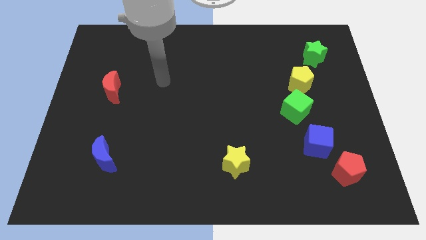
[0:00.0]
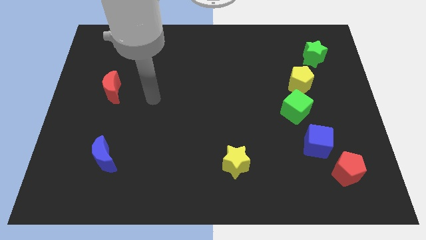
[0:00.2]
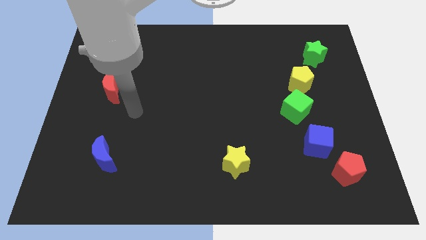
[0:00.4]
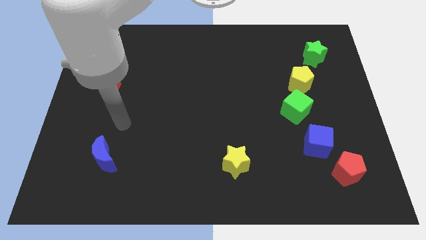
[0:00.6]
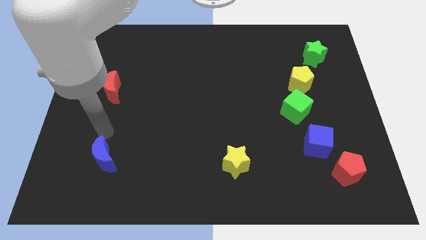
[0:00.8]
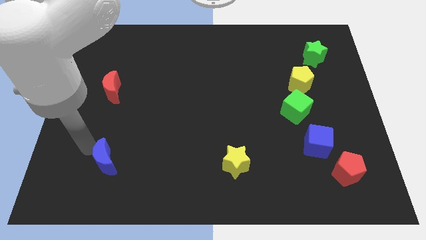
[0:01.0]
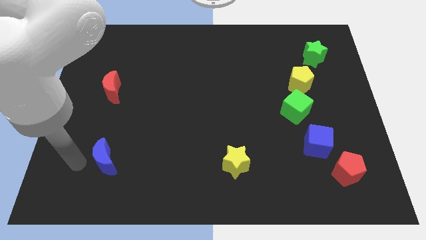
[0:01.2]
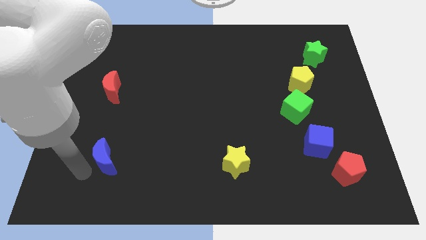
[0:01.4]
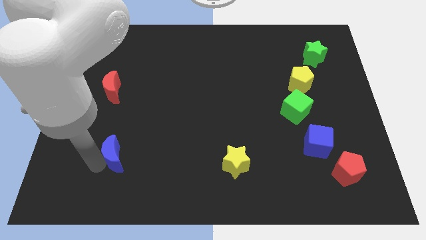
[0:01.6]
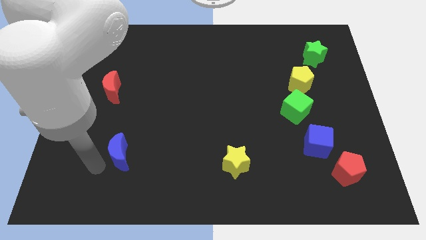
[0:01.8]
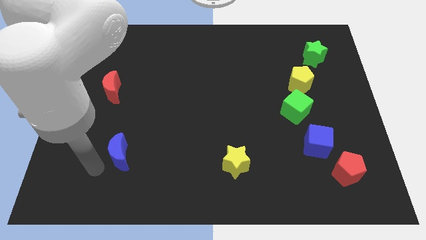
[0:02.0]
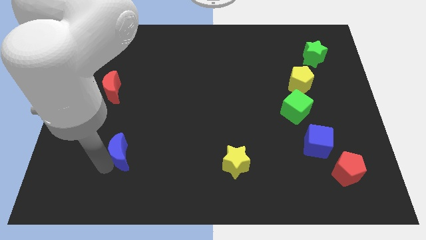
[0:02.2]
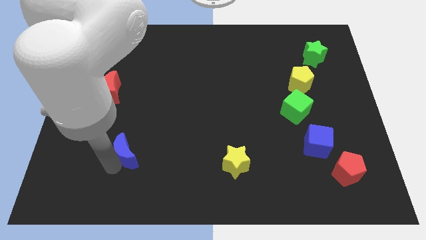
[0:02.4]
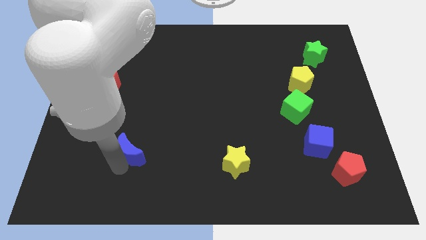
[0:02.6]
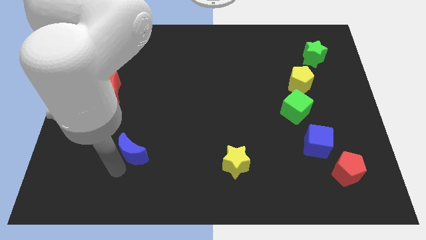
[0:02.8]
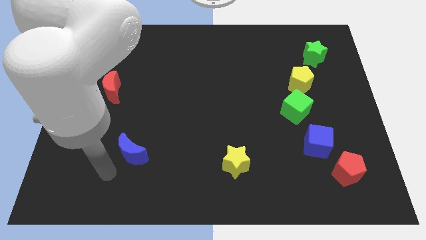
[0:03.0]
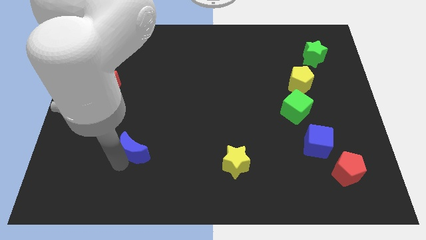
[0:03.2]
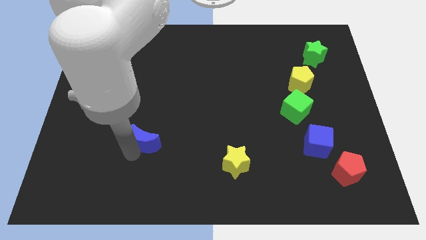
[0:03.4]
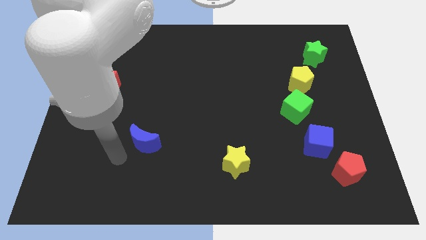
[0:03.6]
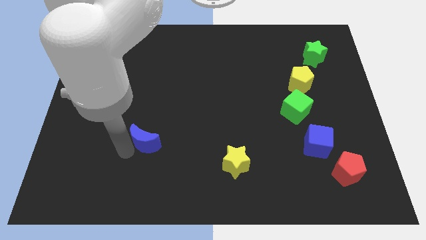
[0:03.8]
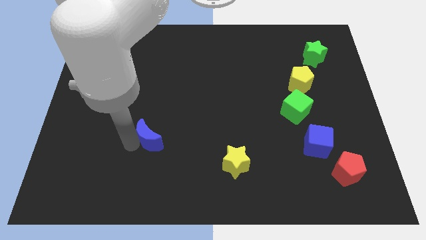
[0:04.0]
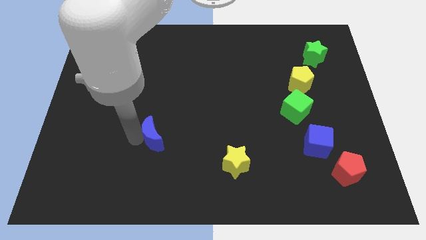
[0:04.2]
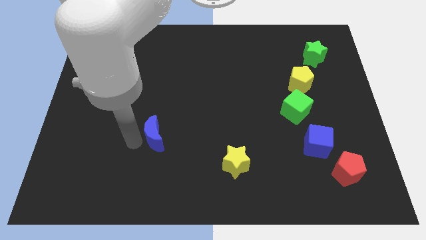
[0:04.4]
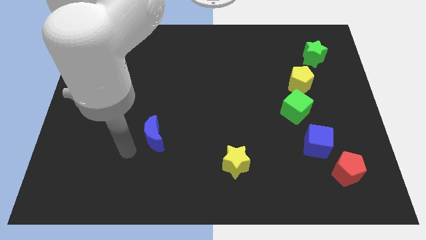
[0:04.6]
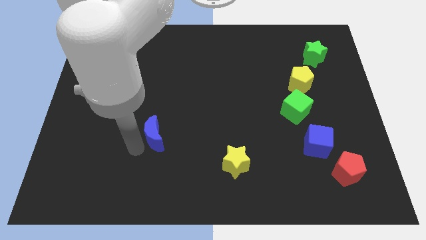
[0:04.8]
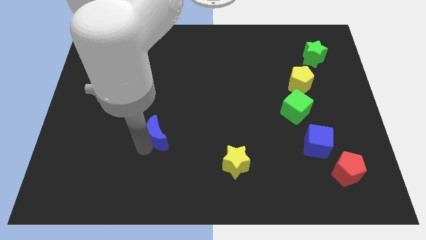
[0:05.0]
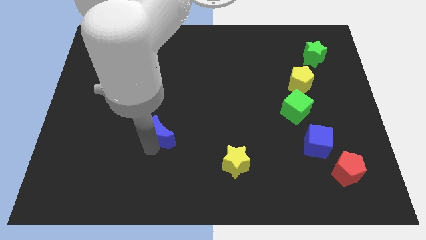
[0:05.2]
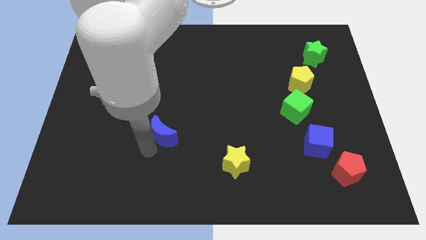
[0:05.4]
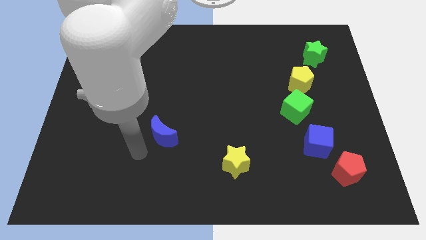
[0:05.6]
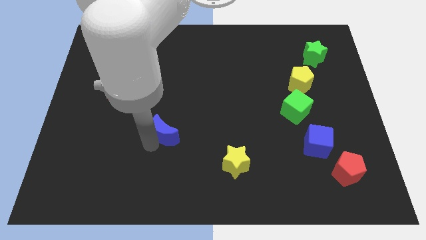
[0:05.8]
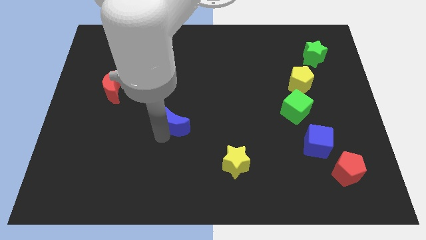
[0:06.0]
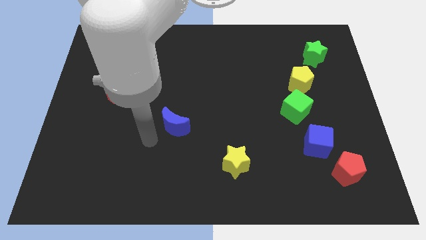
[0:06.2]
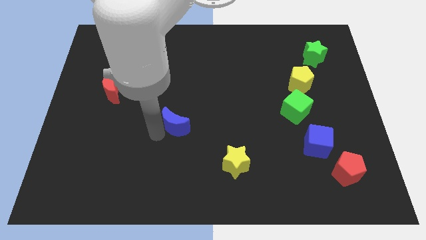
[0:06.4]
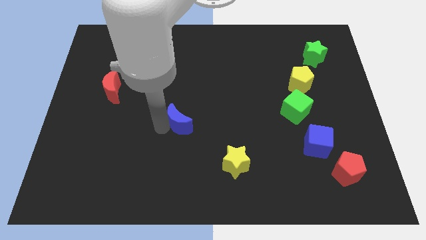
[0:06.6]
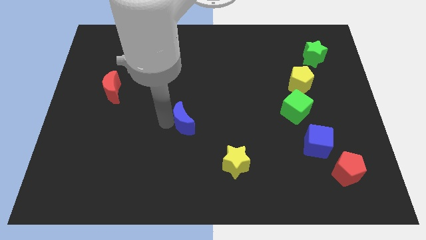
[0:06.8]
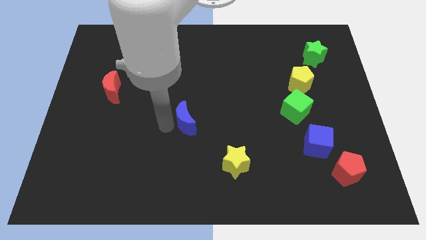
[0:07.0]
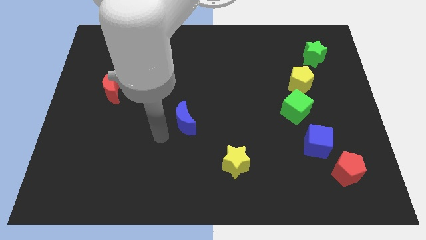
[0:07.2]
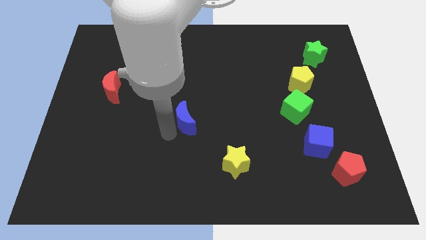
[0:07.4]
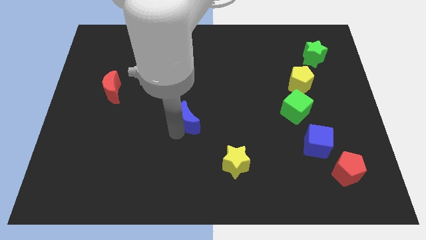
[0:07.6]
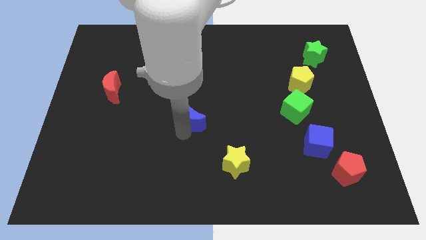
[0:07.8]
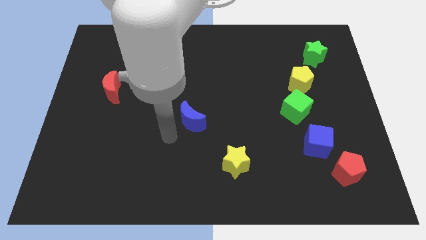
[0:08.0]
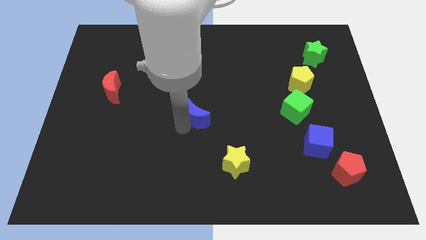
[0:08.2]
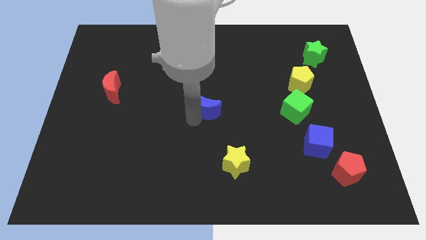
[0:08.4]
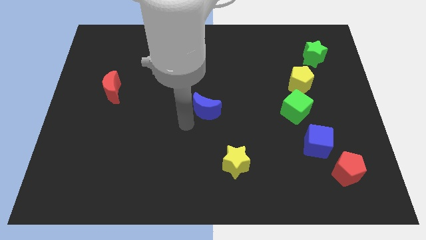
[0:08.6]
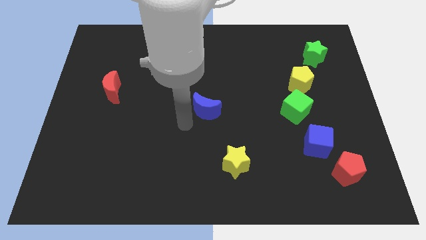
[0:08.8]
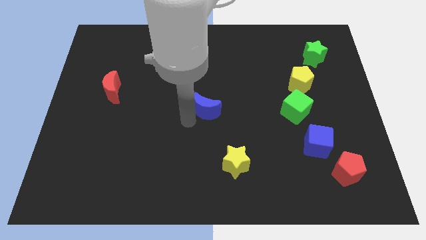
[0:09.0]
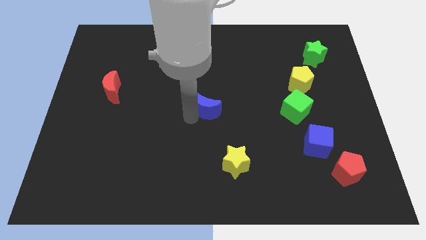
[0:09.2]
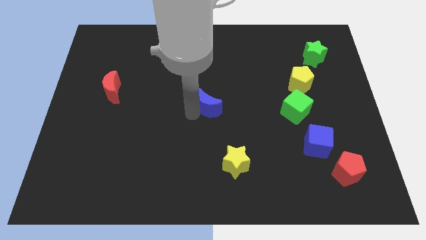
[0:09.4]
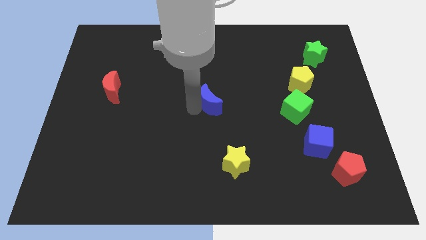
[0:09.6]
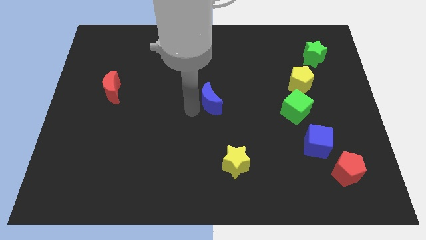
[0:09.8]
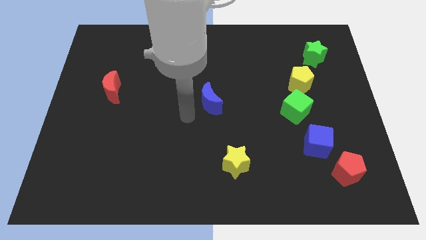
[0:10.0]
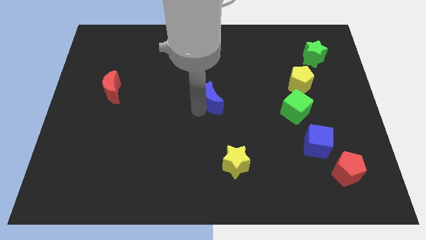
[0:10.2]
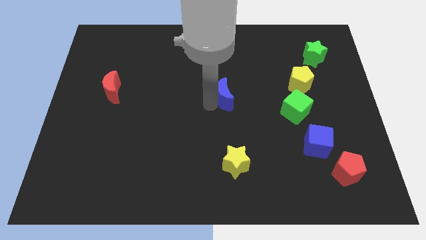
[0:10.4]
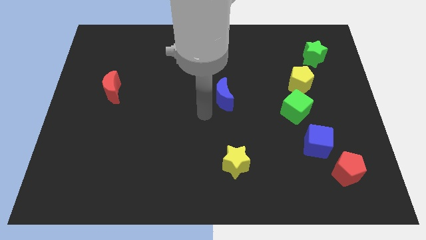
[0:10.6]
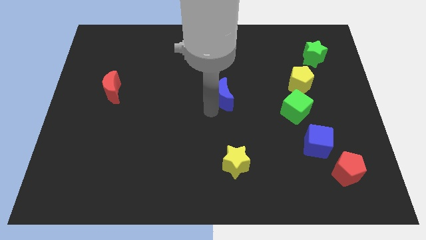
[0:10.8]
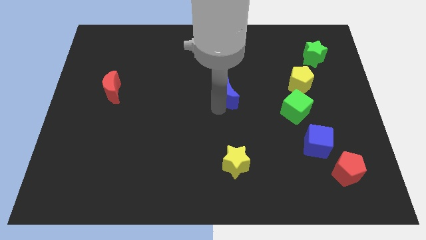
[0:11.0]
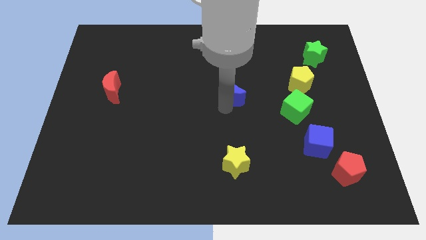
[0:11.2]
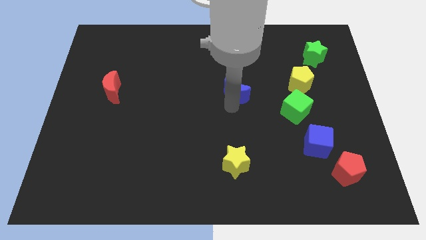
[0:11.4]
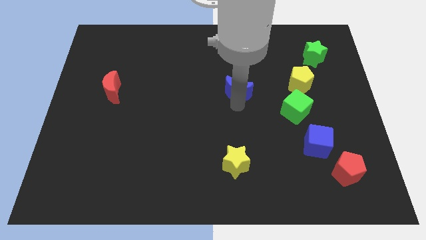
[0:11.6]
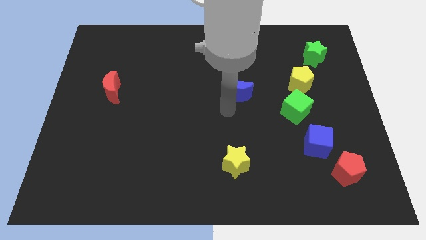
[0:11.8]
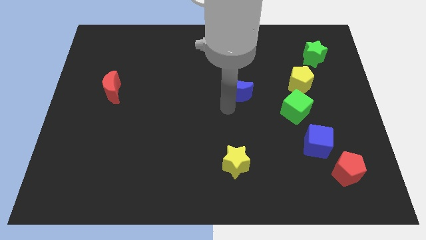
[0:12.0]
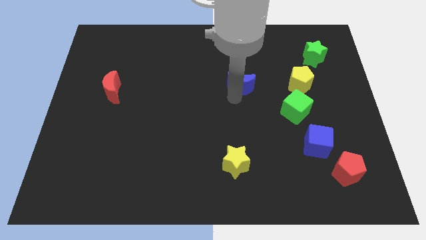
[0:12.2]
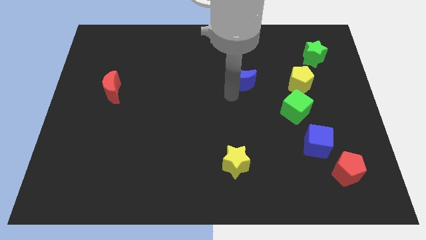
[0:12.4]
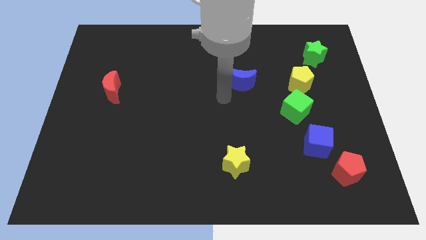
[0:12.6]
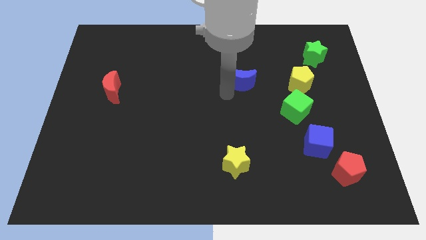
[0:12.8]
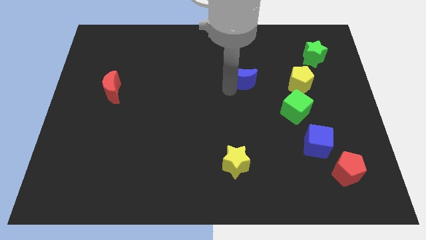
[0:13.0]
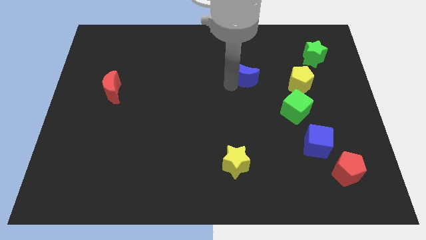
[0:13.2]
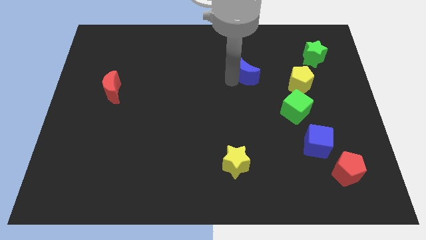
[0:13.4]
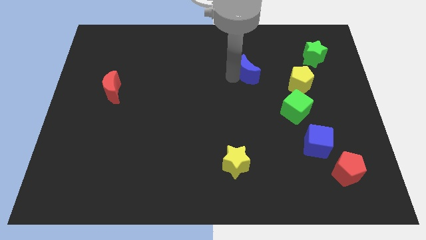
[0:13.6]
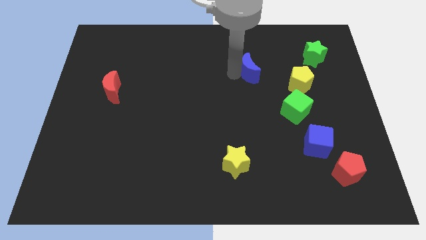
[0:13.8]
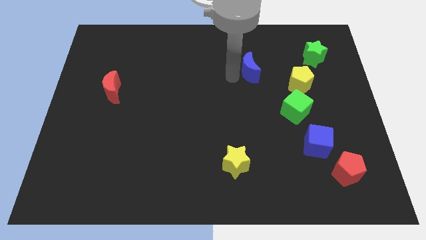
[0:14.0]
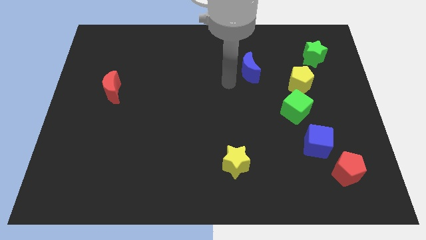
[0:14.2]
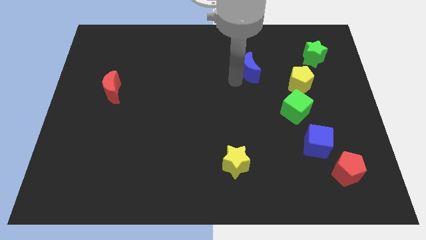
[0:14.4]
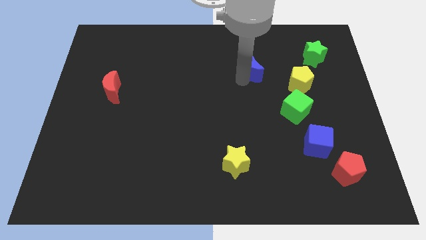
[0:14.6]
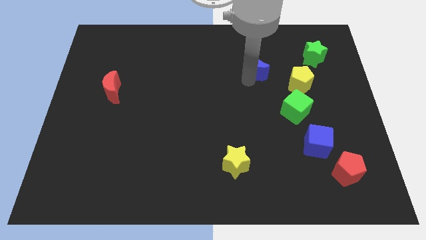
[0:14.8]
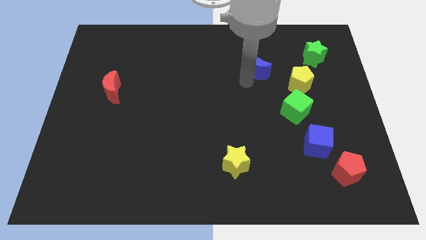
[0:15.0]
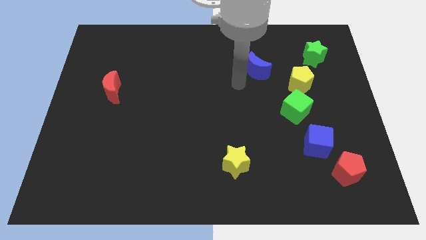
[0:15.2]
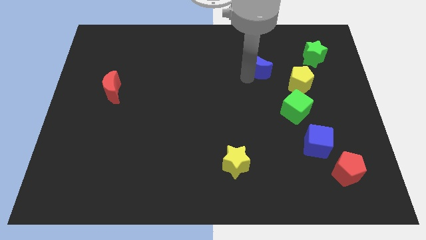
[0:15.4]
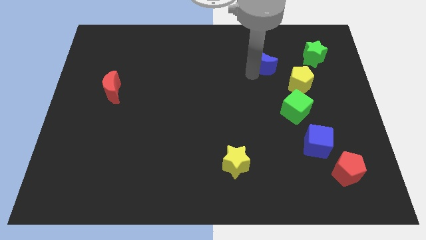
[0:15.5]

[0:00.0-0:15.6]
put the blue moon left of the green star
